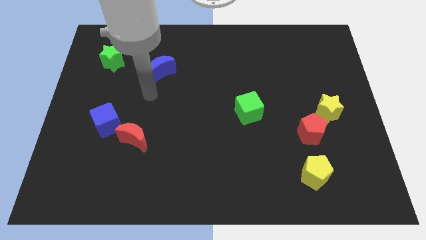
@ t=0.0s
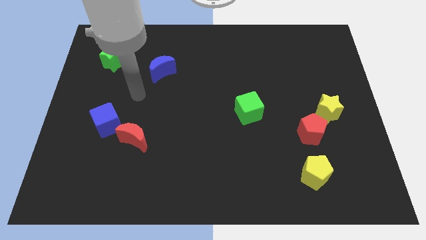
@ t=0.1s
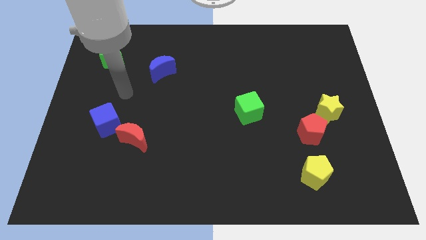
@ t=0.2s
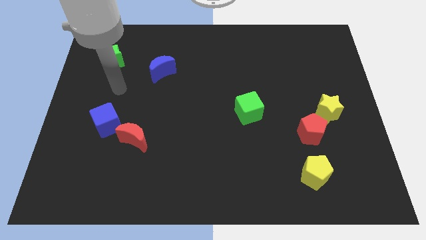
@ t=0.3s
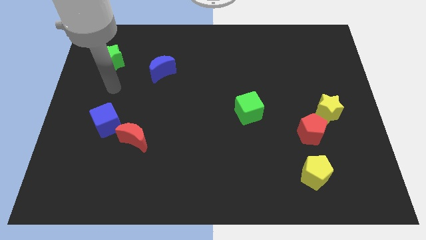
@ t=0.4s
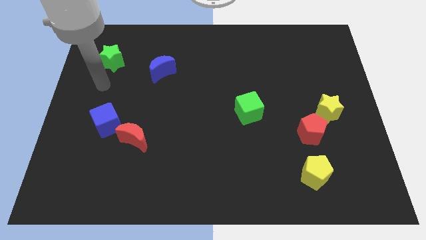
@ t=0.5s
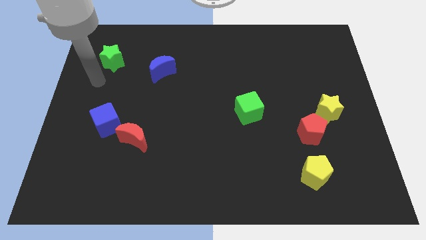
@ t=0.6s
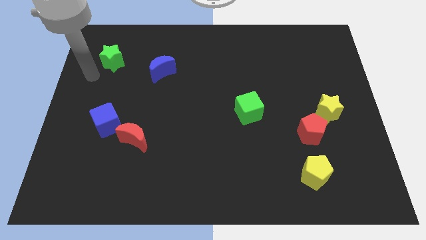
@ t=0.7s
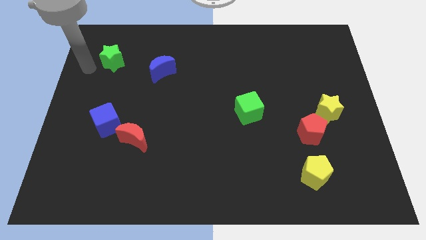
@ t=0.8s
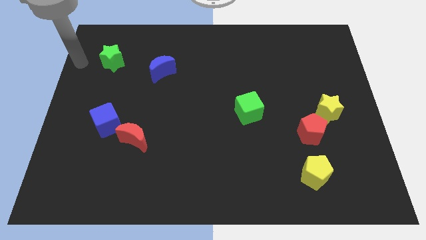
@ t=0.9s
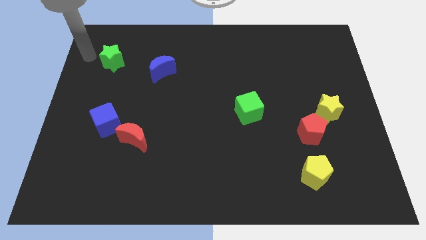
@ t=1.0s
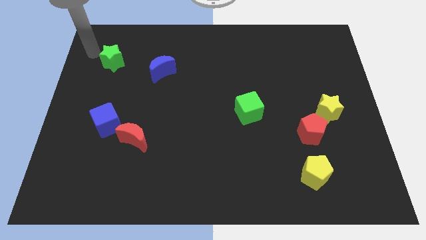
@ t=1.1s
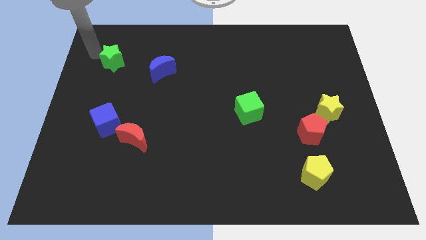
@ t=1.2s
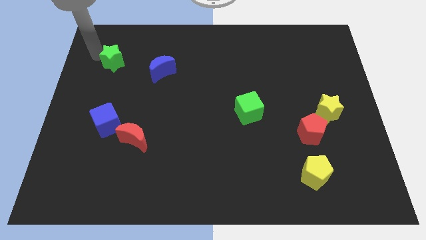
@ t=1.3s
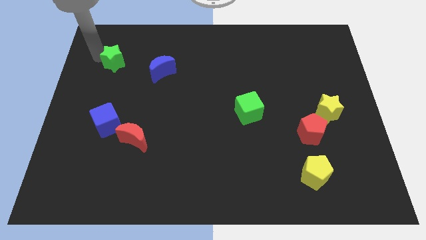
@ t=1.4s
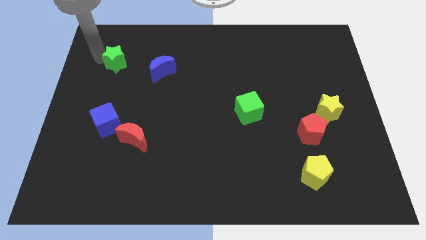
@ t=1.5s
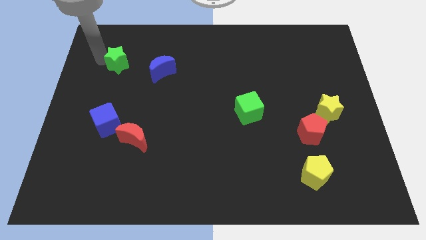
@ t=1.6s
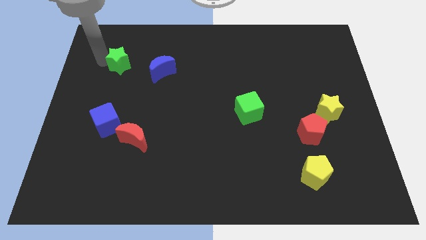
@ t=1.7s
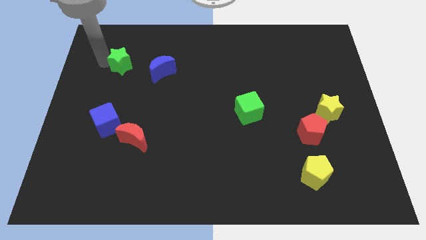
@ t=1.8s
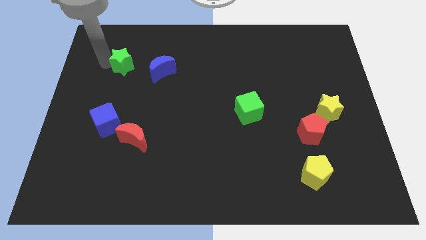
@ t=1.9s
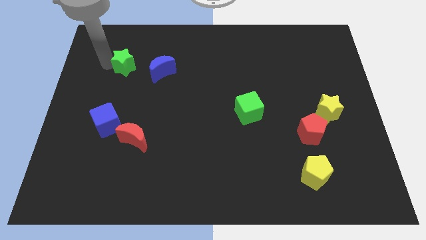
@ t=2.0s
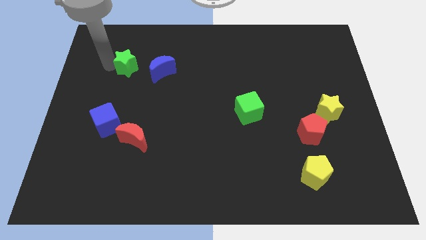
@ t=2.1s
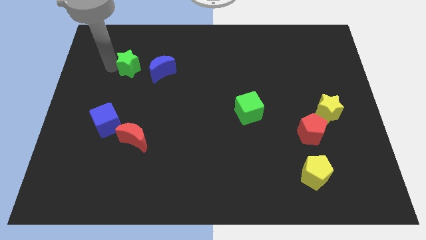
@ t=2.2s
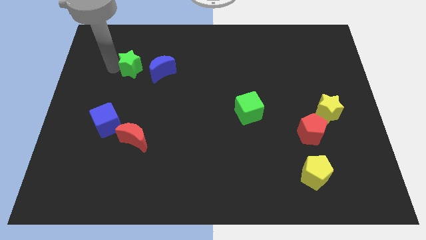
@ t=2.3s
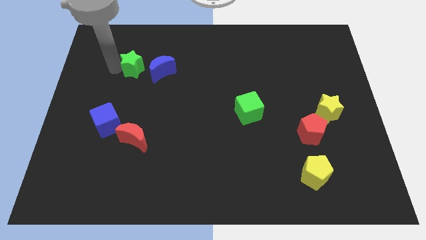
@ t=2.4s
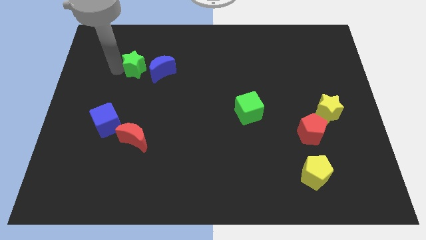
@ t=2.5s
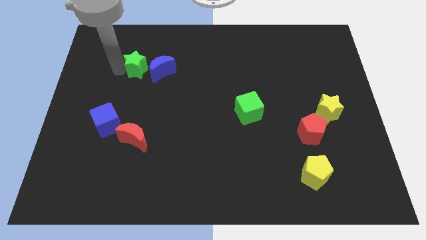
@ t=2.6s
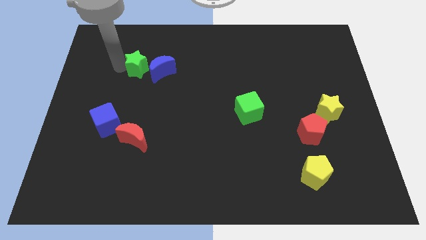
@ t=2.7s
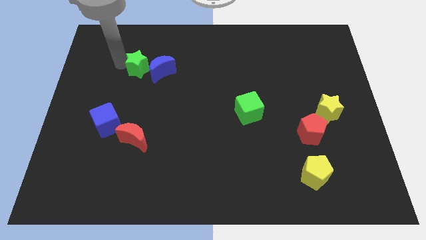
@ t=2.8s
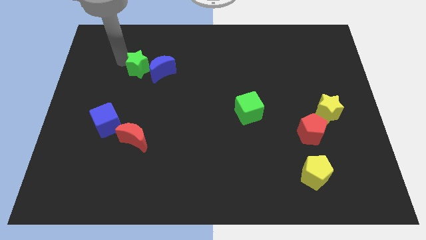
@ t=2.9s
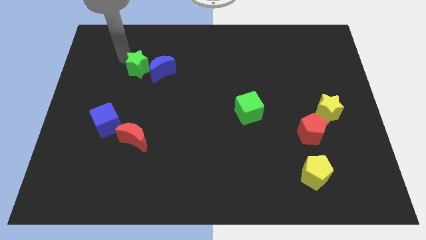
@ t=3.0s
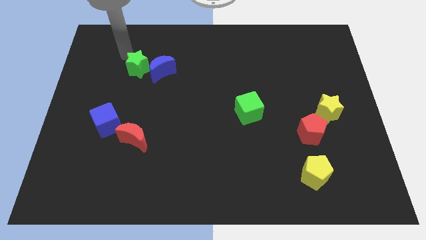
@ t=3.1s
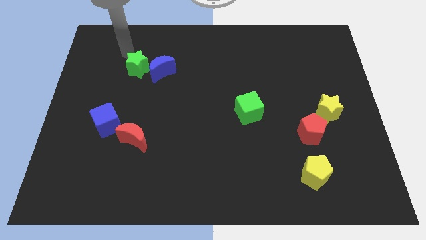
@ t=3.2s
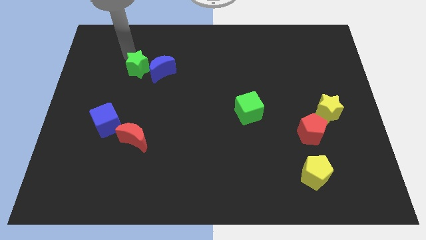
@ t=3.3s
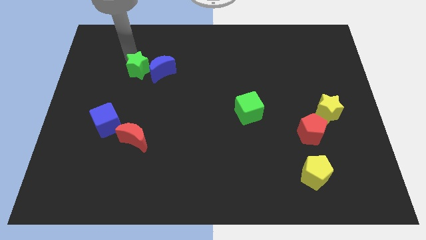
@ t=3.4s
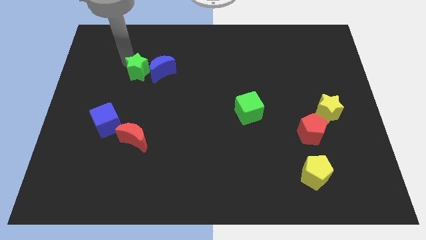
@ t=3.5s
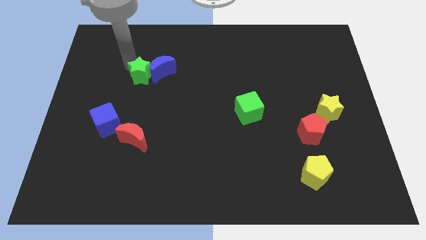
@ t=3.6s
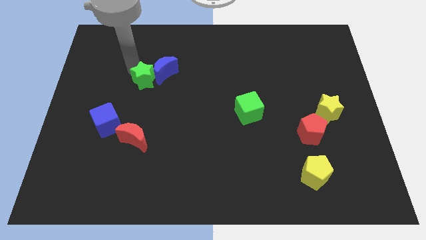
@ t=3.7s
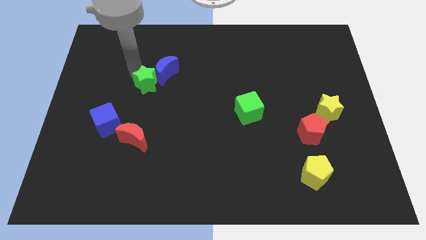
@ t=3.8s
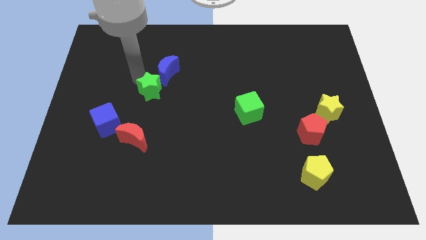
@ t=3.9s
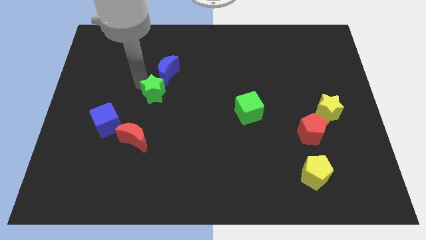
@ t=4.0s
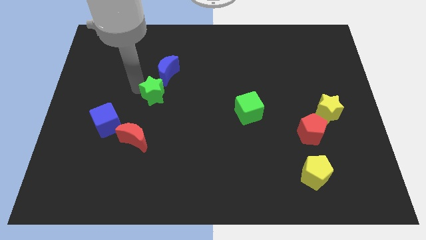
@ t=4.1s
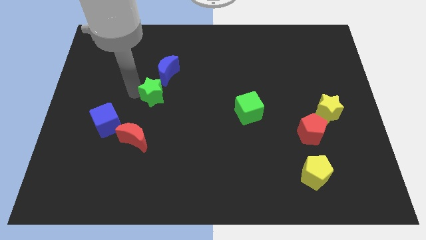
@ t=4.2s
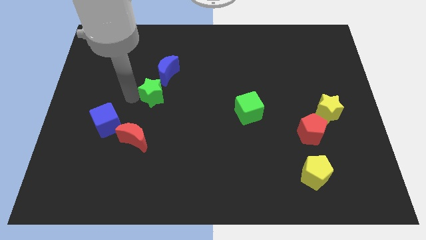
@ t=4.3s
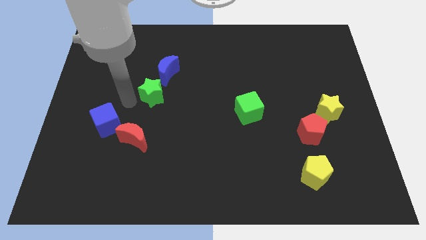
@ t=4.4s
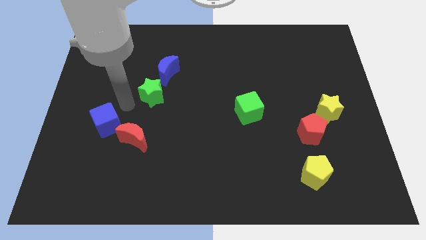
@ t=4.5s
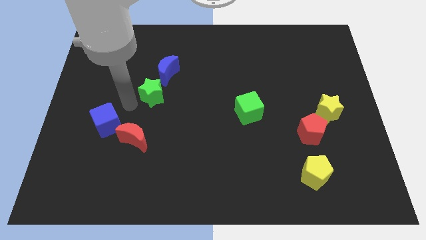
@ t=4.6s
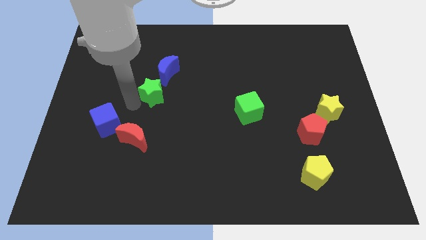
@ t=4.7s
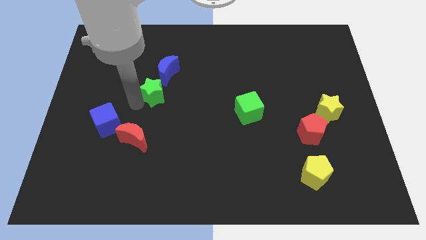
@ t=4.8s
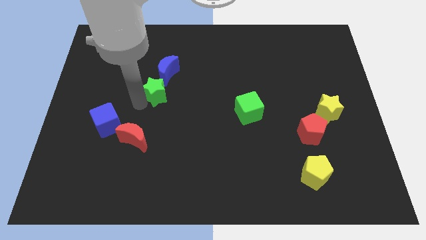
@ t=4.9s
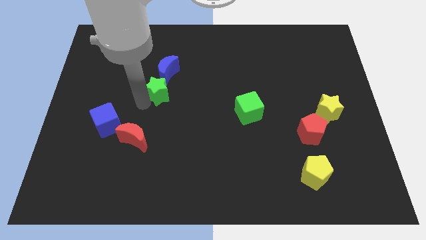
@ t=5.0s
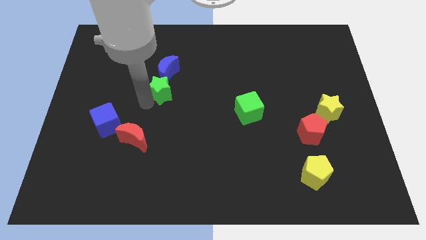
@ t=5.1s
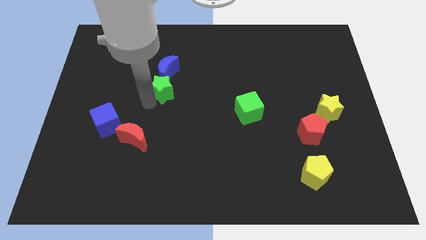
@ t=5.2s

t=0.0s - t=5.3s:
move the green star to the middle of the board

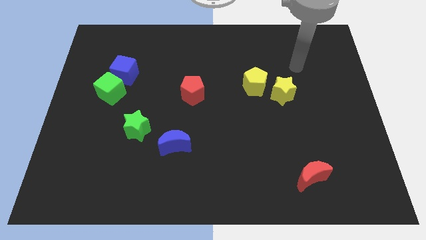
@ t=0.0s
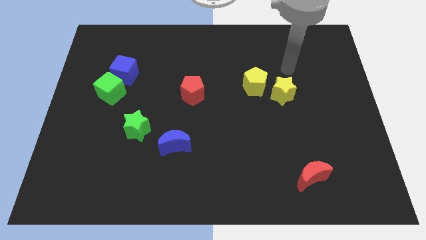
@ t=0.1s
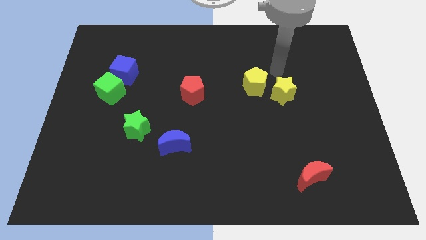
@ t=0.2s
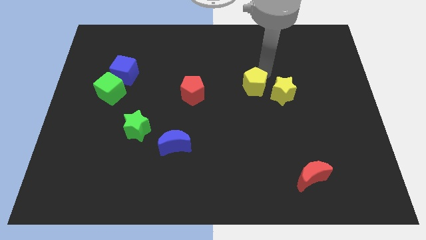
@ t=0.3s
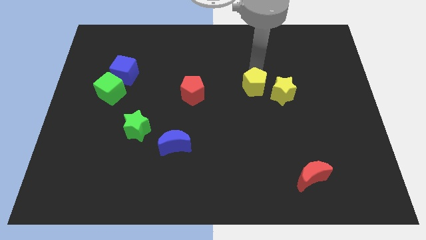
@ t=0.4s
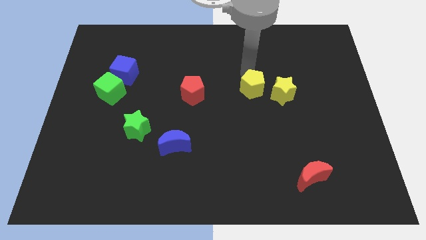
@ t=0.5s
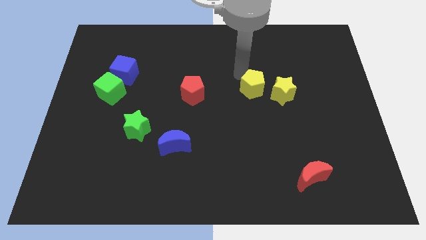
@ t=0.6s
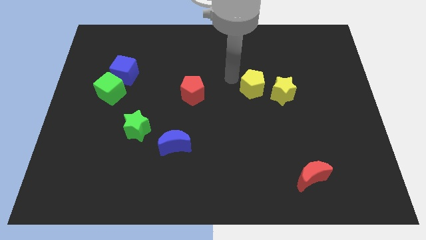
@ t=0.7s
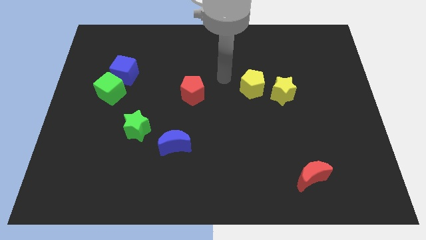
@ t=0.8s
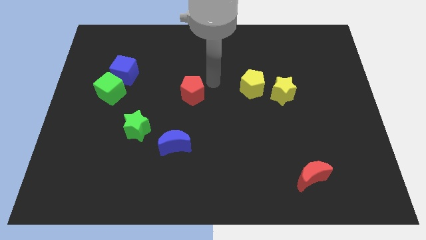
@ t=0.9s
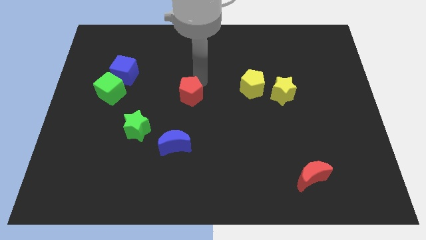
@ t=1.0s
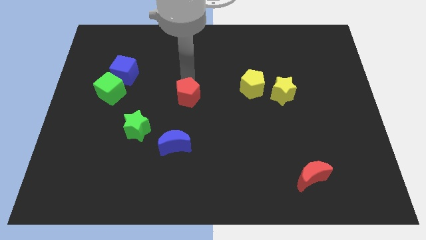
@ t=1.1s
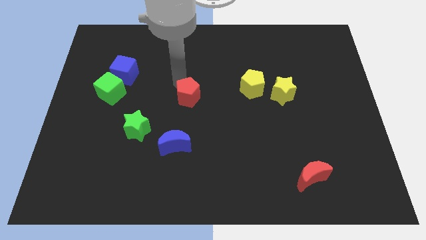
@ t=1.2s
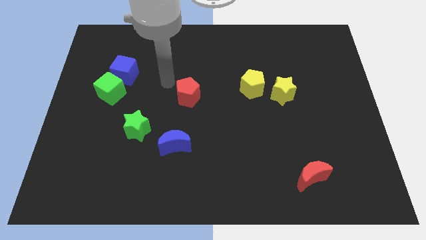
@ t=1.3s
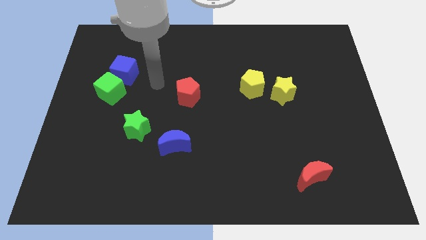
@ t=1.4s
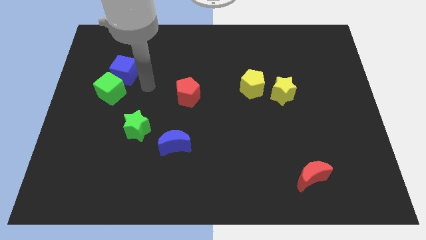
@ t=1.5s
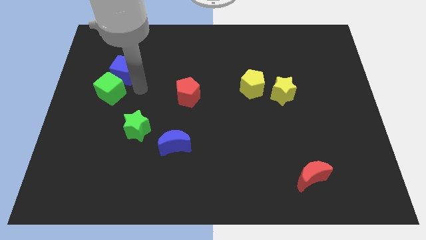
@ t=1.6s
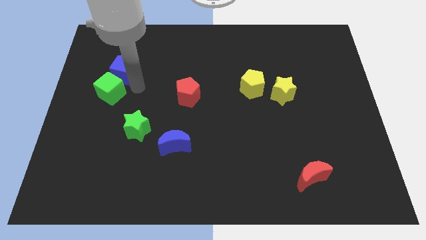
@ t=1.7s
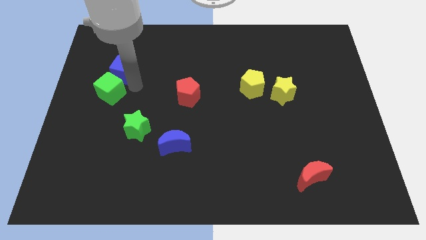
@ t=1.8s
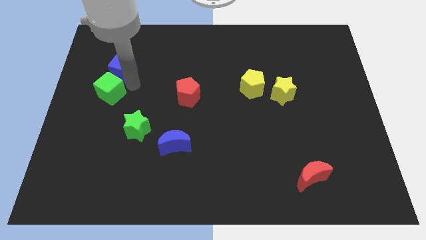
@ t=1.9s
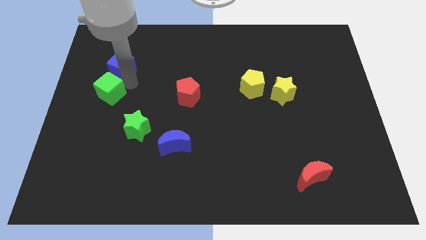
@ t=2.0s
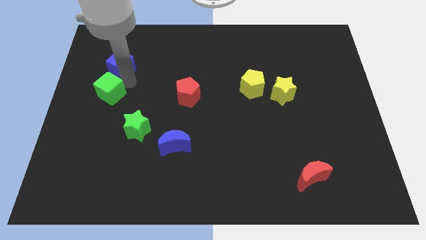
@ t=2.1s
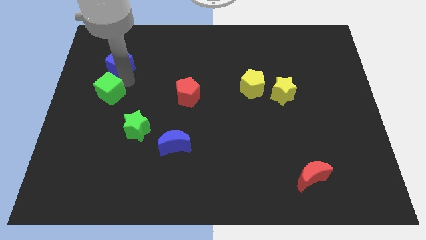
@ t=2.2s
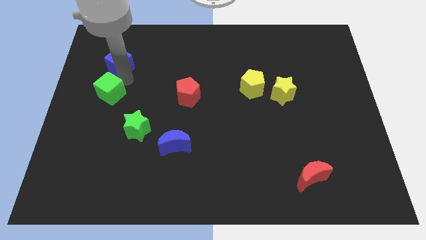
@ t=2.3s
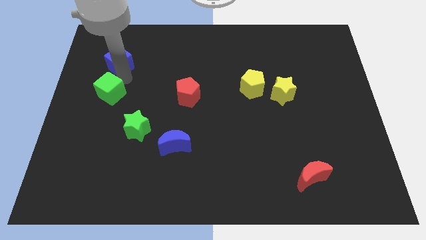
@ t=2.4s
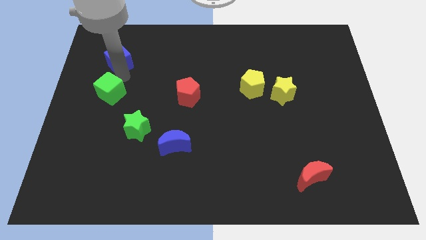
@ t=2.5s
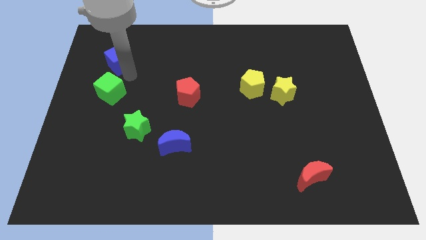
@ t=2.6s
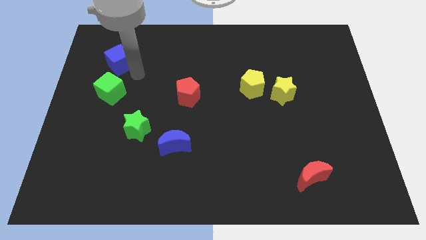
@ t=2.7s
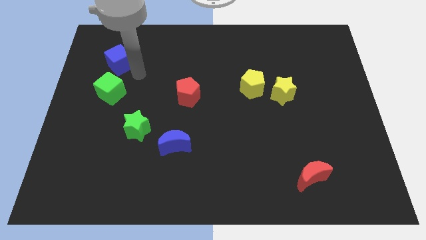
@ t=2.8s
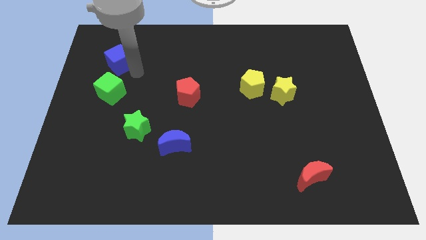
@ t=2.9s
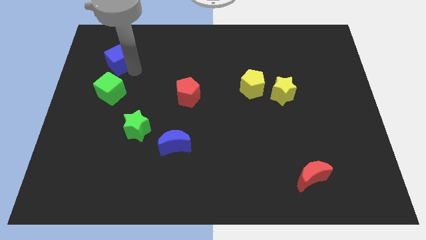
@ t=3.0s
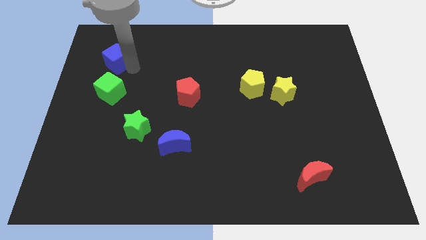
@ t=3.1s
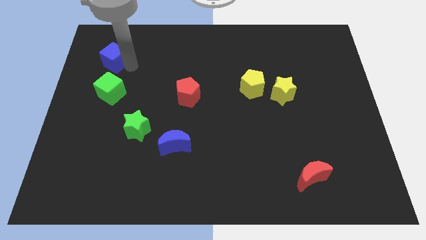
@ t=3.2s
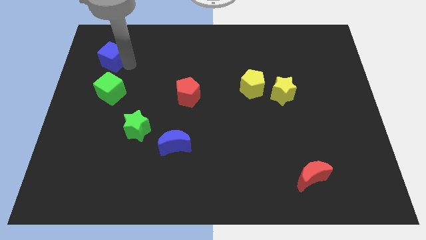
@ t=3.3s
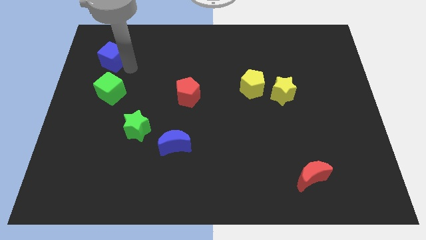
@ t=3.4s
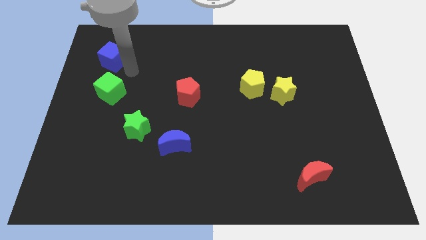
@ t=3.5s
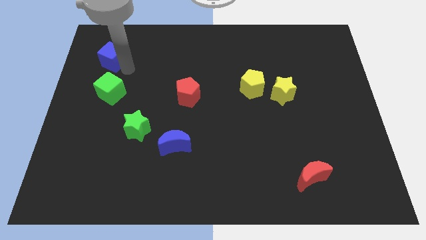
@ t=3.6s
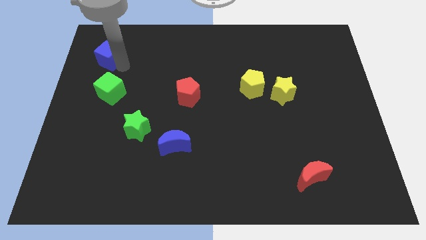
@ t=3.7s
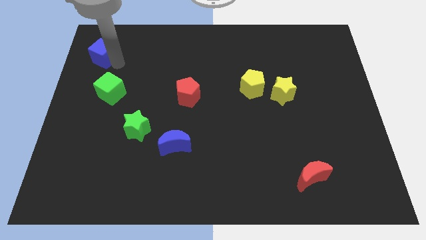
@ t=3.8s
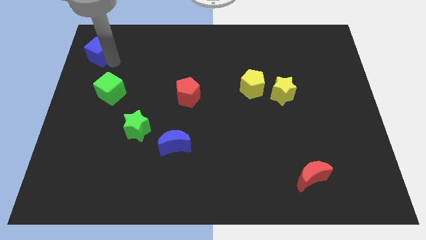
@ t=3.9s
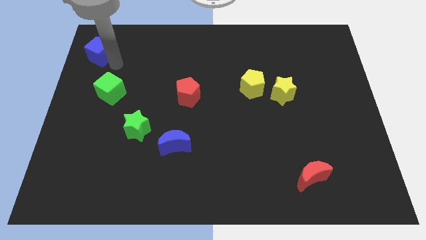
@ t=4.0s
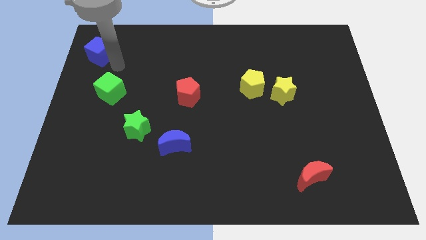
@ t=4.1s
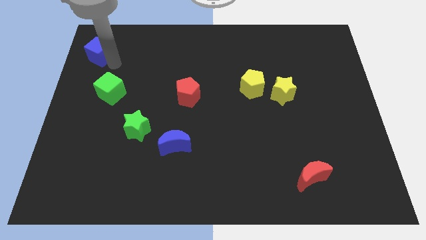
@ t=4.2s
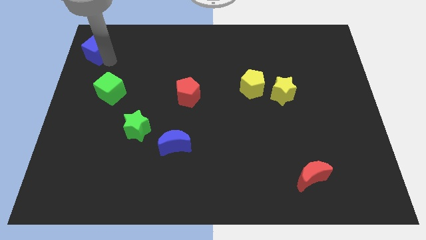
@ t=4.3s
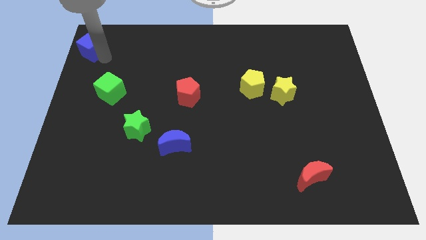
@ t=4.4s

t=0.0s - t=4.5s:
slide the blue cube to the top left
